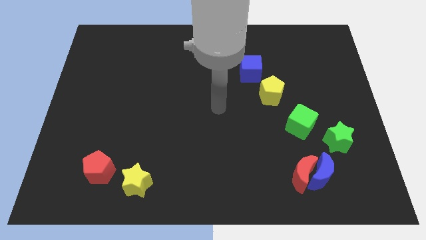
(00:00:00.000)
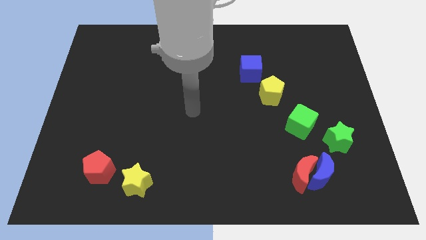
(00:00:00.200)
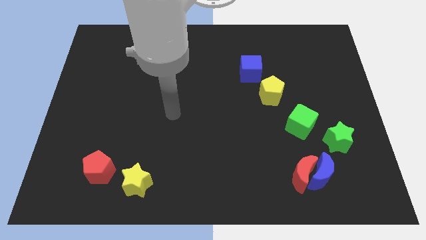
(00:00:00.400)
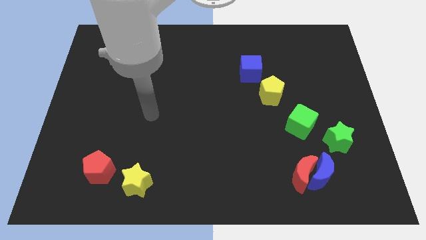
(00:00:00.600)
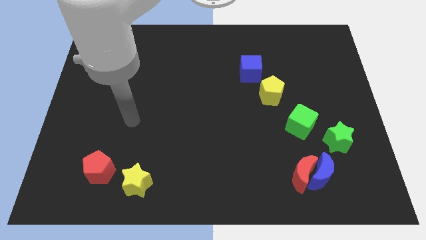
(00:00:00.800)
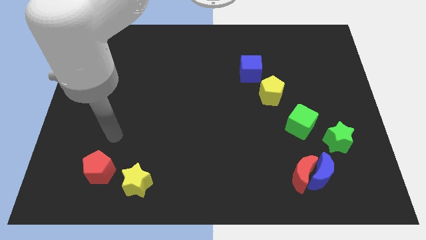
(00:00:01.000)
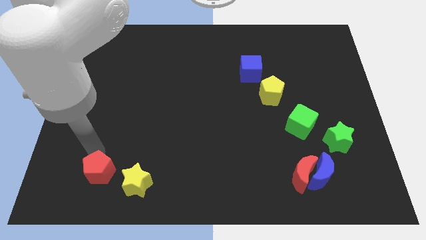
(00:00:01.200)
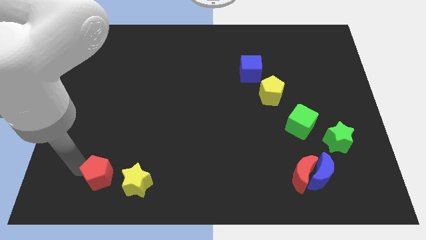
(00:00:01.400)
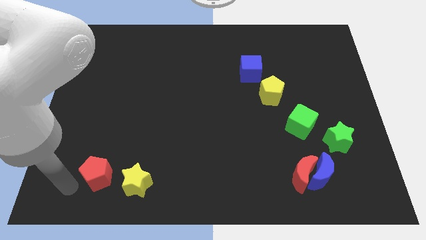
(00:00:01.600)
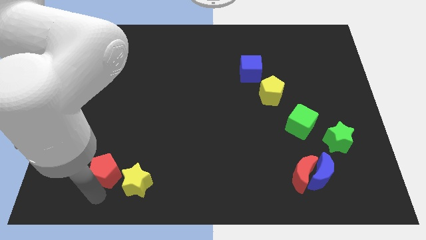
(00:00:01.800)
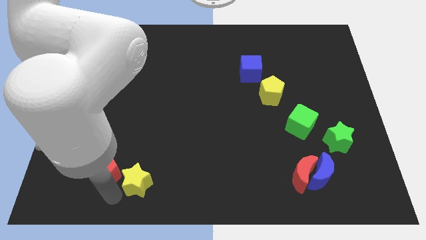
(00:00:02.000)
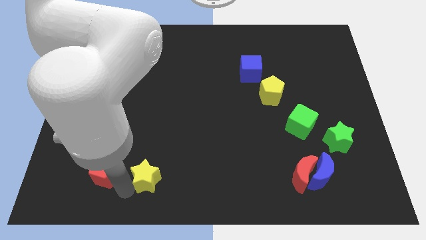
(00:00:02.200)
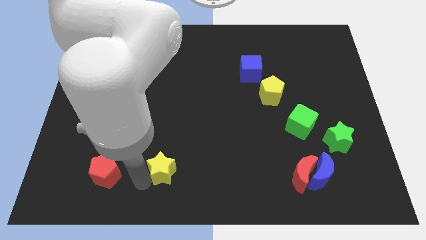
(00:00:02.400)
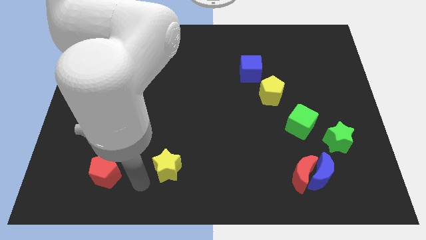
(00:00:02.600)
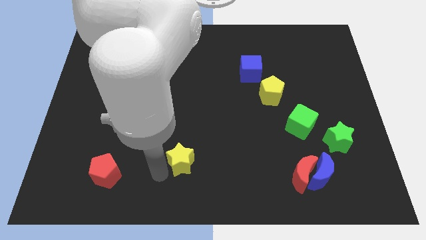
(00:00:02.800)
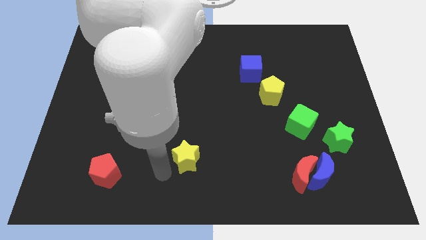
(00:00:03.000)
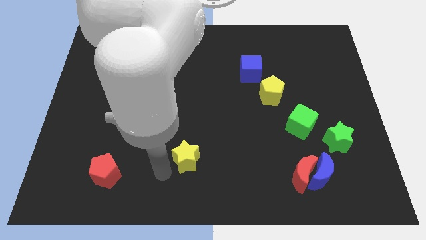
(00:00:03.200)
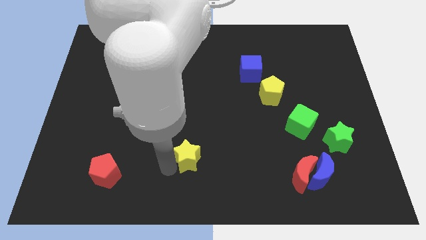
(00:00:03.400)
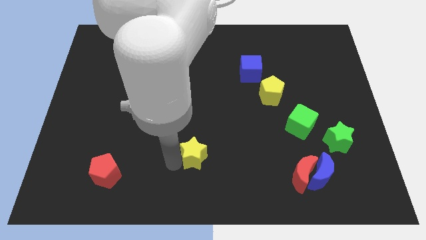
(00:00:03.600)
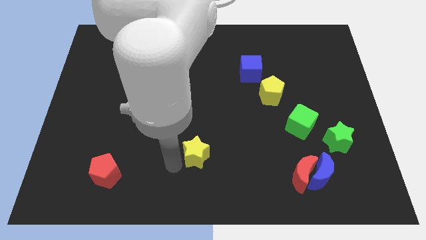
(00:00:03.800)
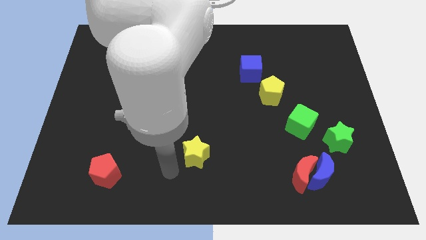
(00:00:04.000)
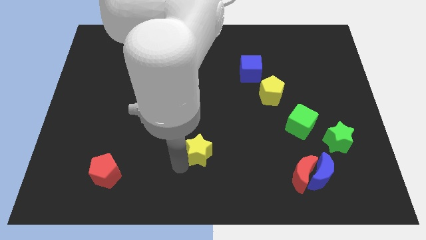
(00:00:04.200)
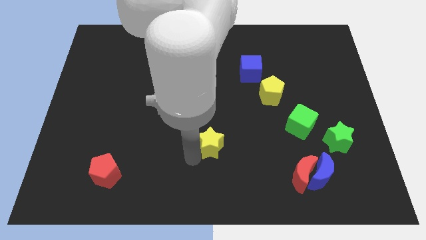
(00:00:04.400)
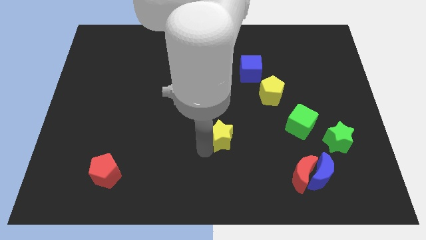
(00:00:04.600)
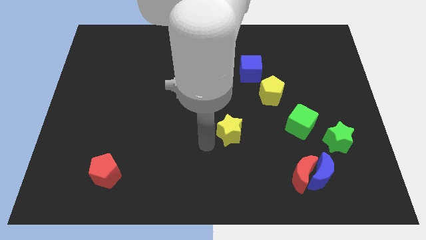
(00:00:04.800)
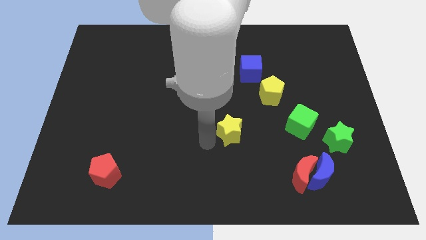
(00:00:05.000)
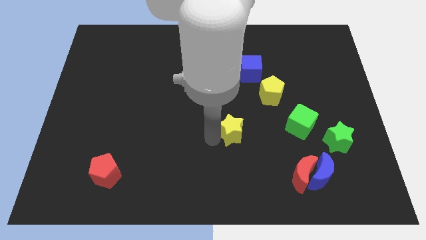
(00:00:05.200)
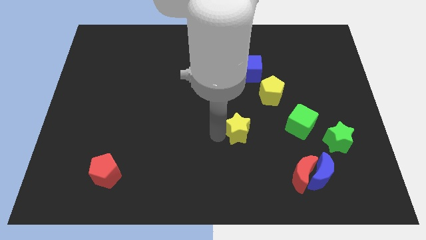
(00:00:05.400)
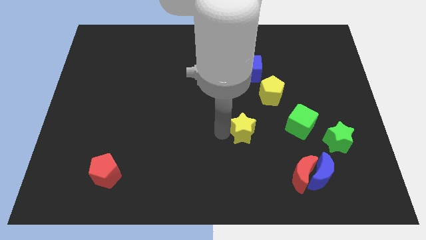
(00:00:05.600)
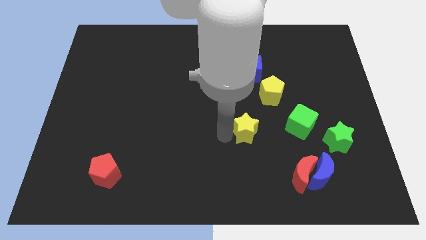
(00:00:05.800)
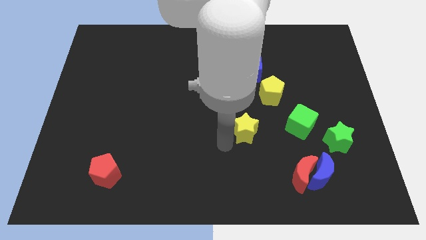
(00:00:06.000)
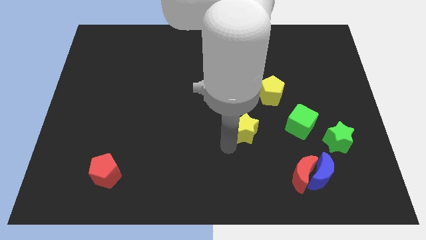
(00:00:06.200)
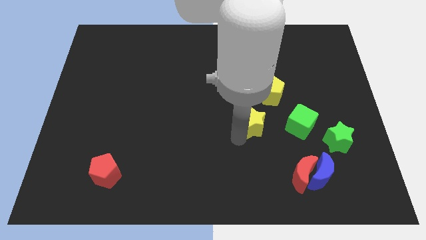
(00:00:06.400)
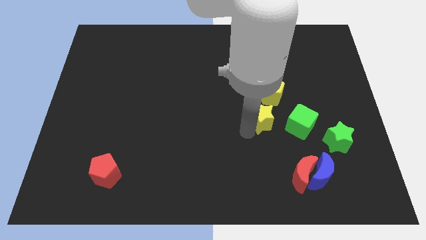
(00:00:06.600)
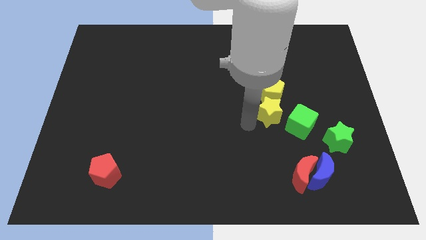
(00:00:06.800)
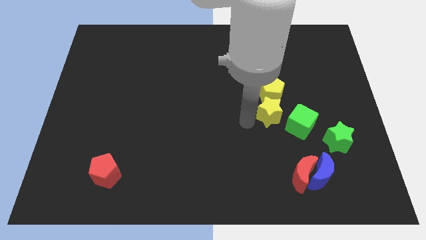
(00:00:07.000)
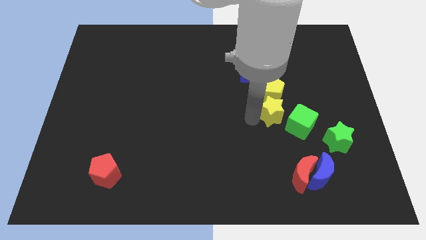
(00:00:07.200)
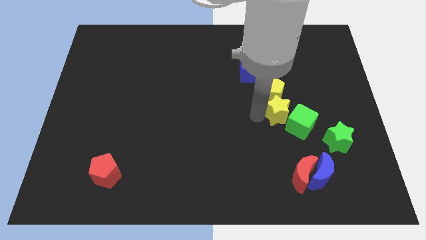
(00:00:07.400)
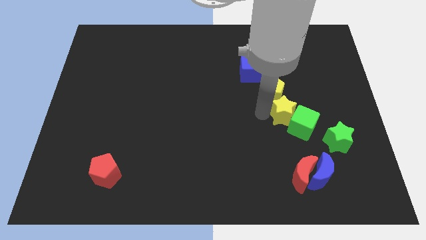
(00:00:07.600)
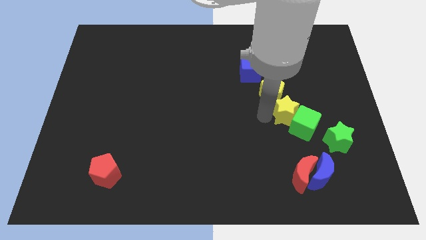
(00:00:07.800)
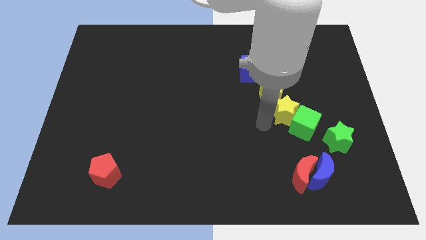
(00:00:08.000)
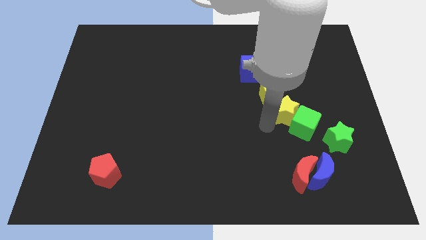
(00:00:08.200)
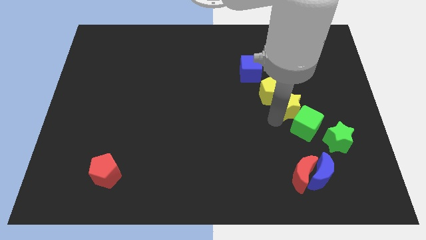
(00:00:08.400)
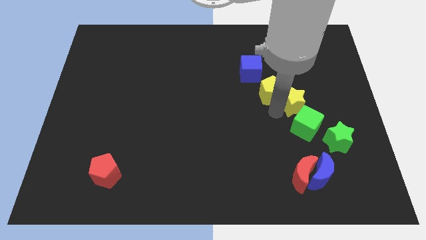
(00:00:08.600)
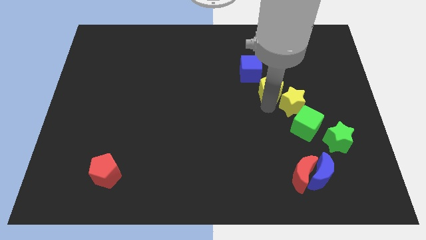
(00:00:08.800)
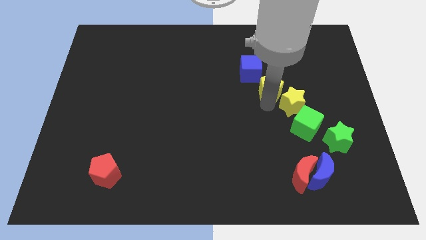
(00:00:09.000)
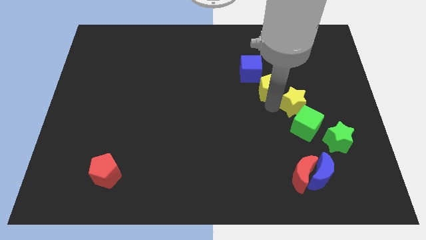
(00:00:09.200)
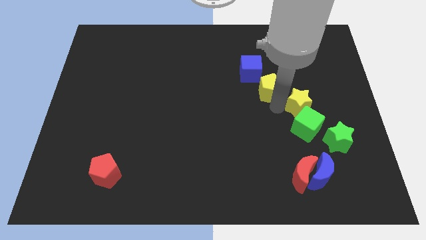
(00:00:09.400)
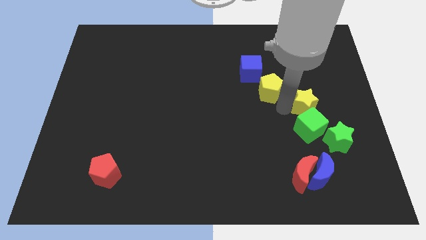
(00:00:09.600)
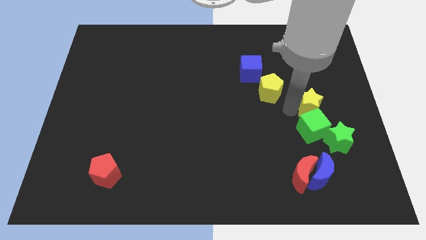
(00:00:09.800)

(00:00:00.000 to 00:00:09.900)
put the yellow star above the green star
